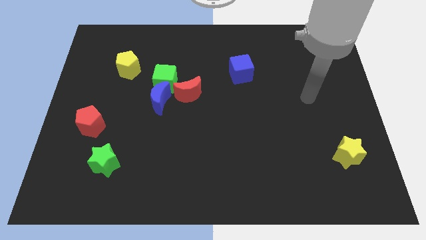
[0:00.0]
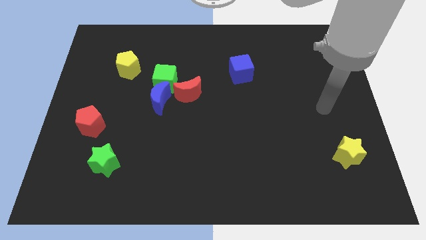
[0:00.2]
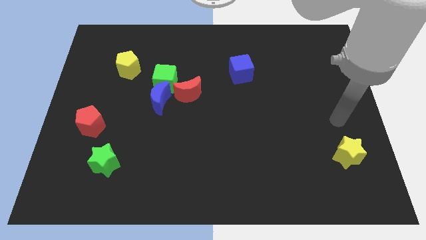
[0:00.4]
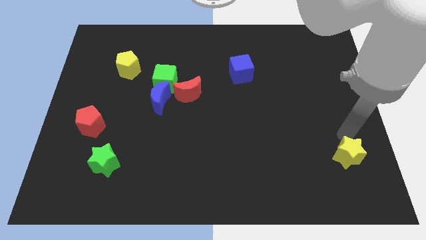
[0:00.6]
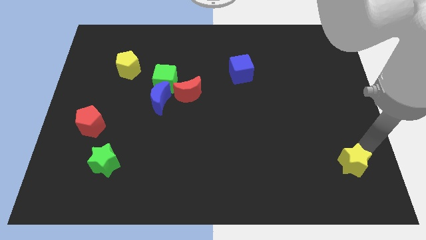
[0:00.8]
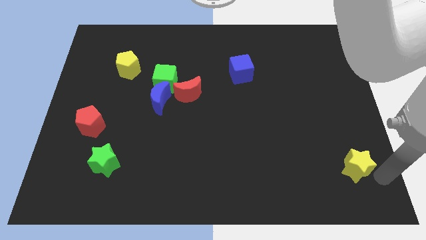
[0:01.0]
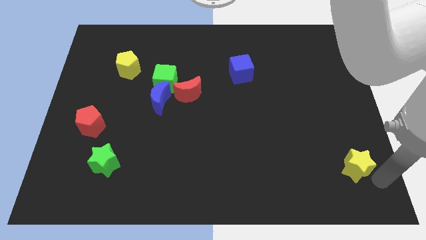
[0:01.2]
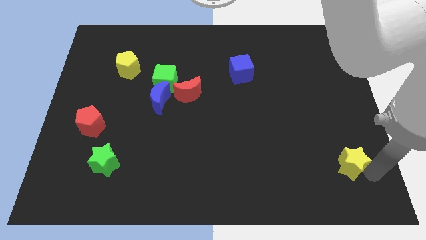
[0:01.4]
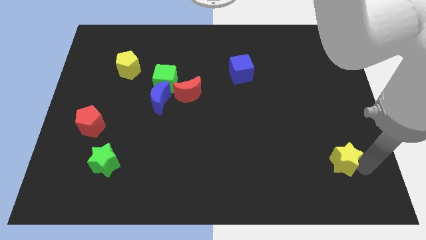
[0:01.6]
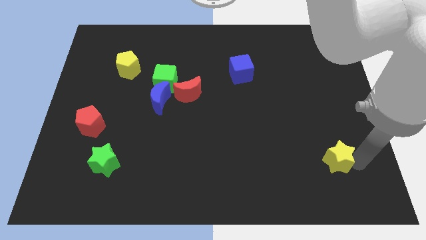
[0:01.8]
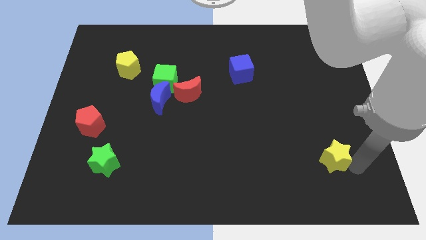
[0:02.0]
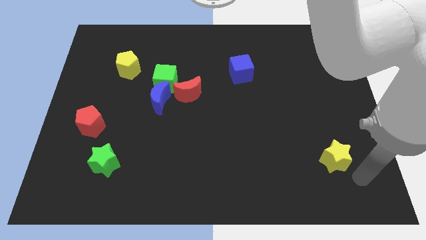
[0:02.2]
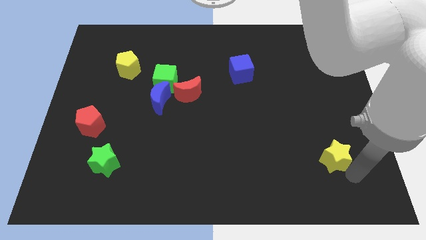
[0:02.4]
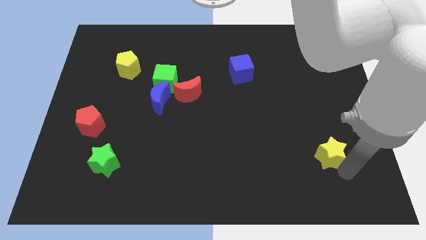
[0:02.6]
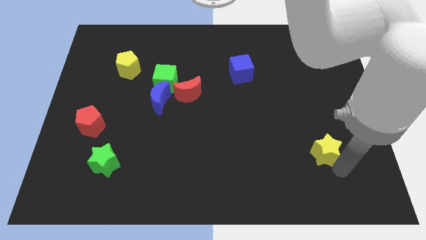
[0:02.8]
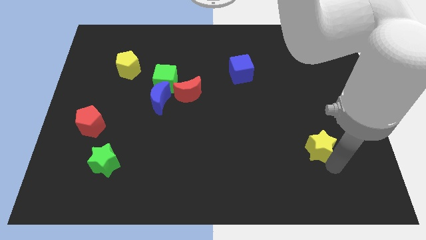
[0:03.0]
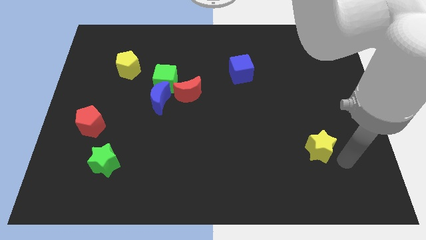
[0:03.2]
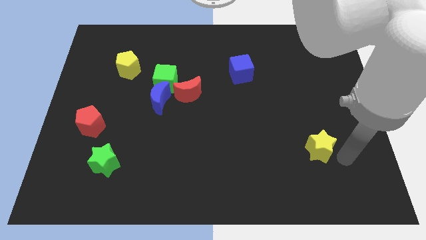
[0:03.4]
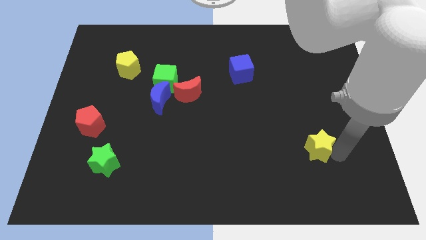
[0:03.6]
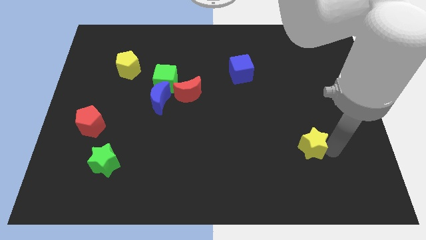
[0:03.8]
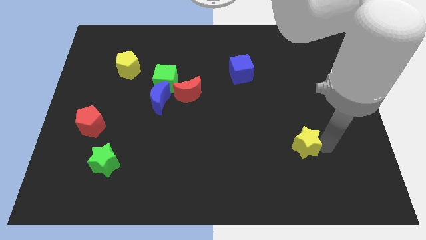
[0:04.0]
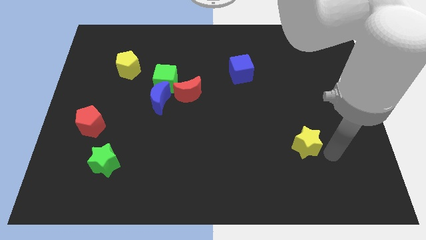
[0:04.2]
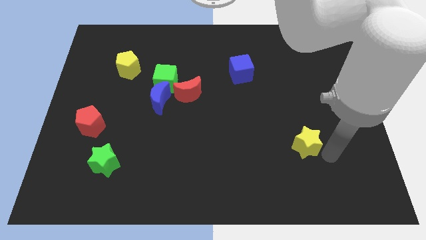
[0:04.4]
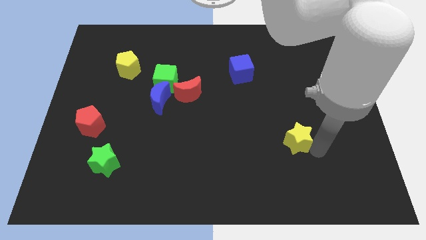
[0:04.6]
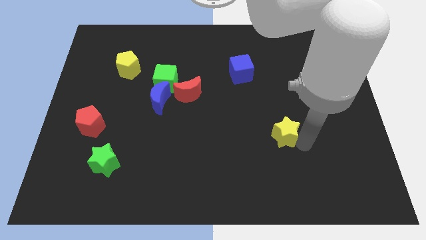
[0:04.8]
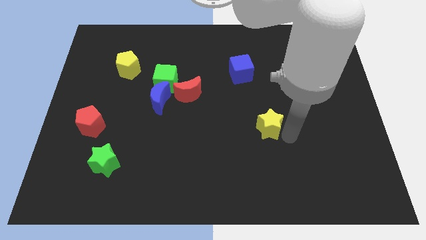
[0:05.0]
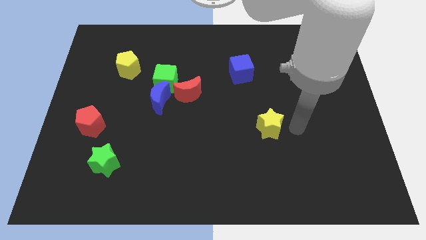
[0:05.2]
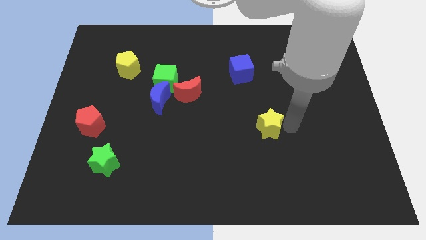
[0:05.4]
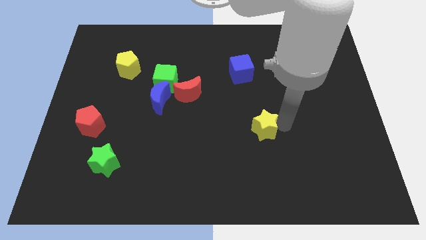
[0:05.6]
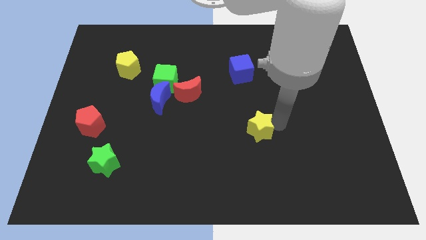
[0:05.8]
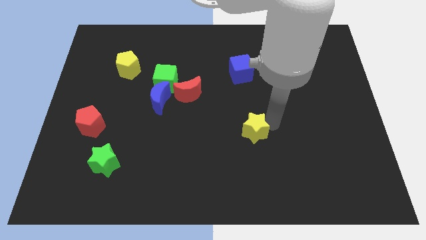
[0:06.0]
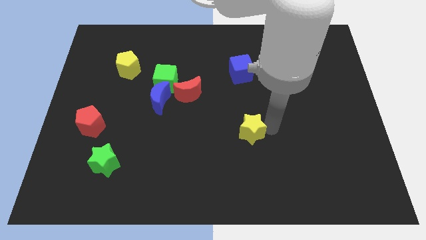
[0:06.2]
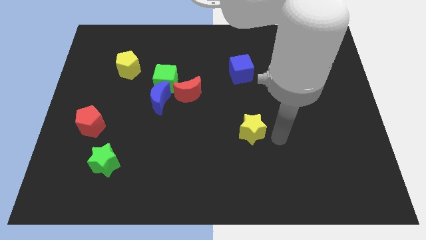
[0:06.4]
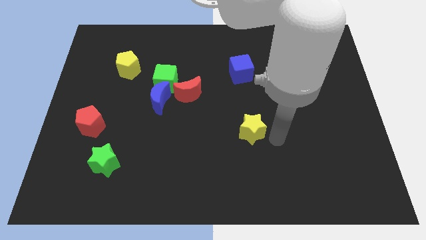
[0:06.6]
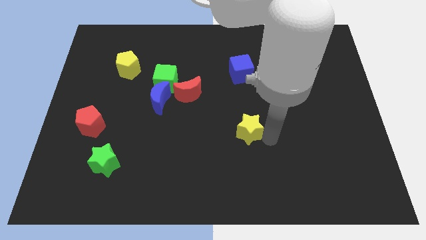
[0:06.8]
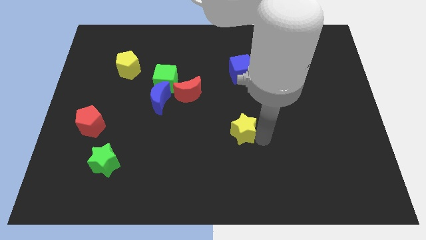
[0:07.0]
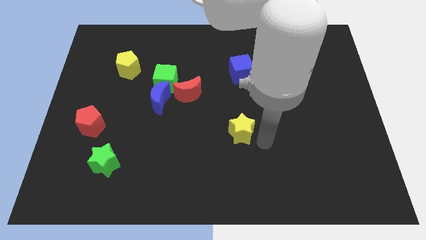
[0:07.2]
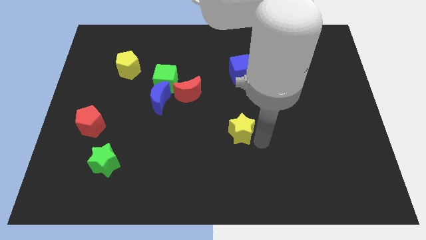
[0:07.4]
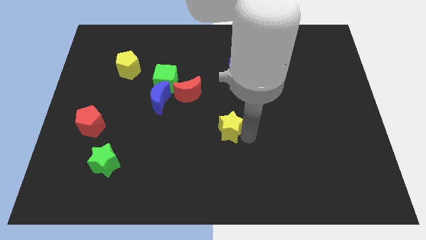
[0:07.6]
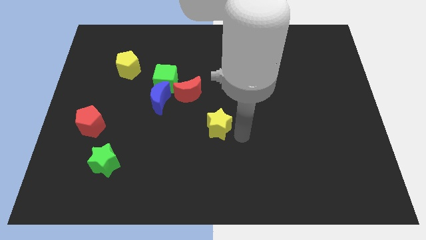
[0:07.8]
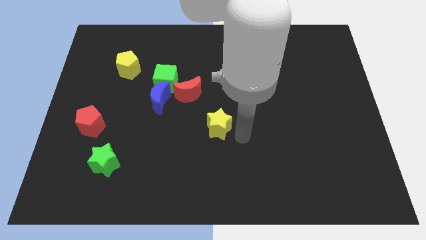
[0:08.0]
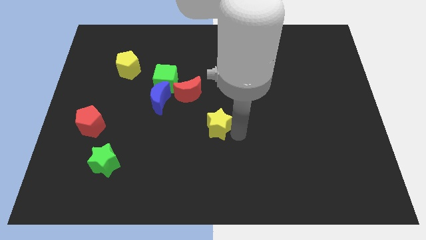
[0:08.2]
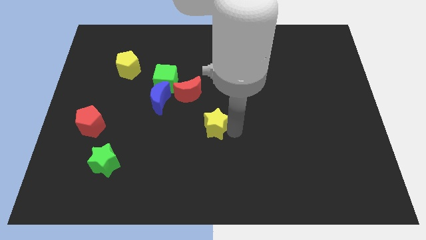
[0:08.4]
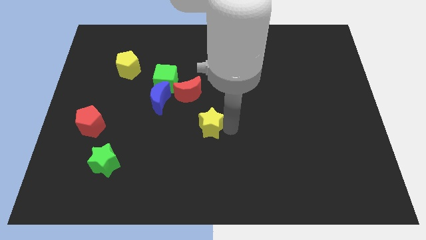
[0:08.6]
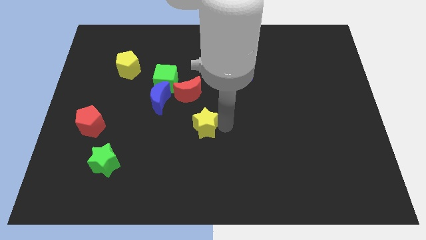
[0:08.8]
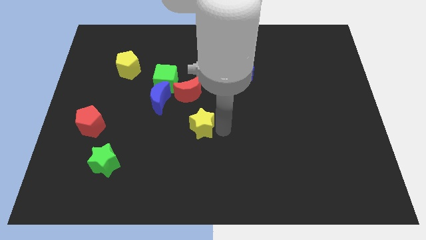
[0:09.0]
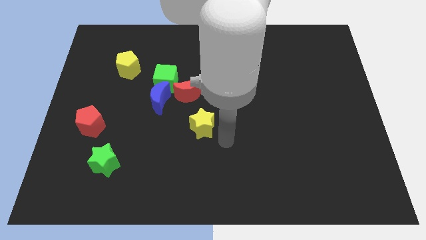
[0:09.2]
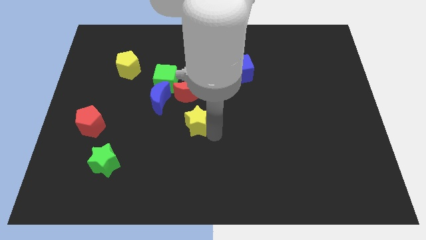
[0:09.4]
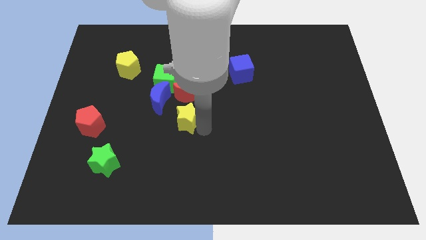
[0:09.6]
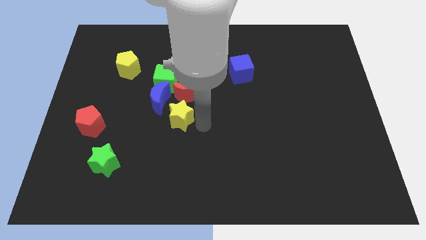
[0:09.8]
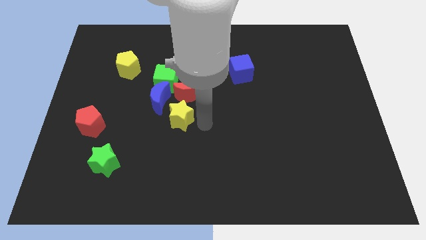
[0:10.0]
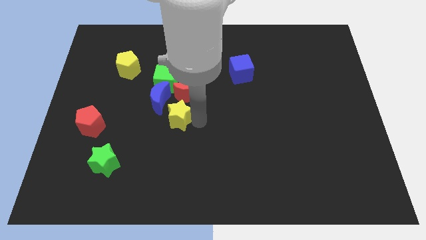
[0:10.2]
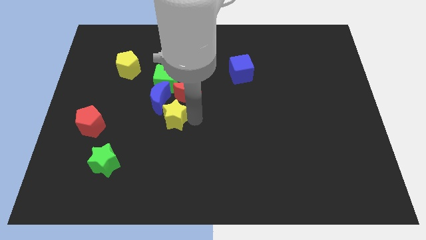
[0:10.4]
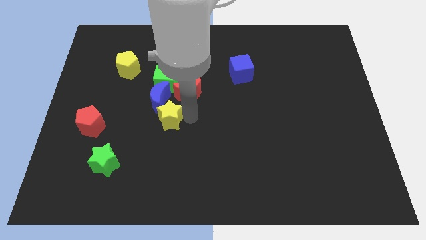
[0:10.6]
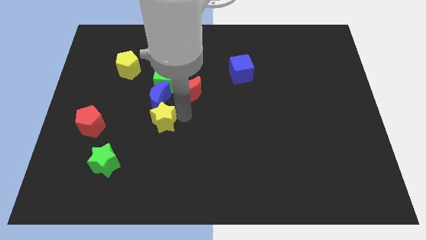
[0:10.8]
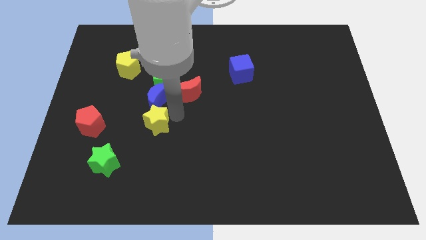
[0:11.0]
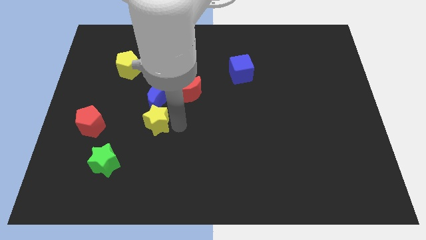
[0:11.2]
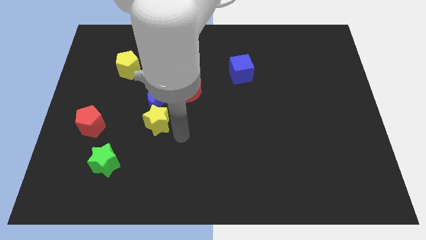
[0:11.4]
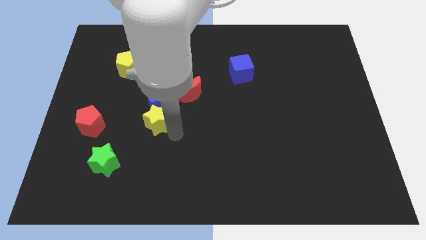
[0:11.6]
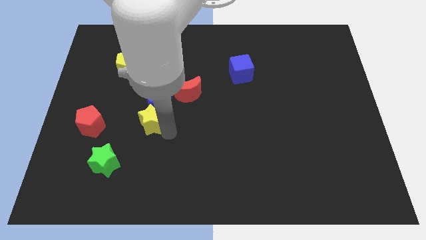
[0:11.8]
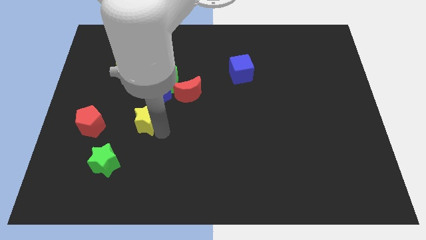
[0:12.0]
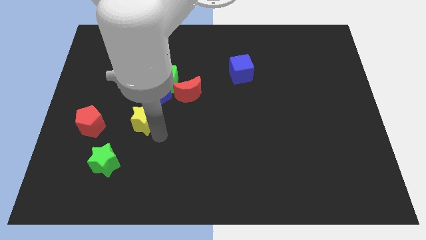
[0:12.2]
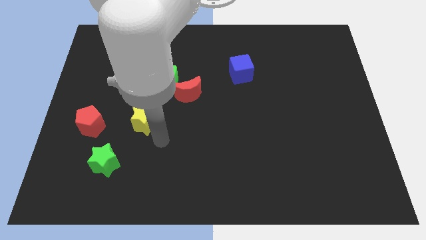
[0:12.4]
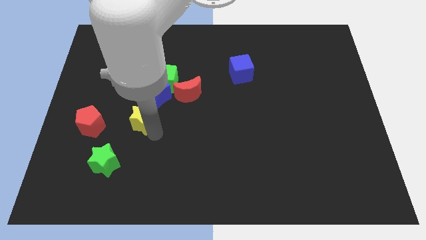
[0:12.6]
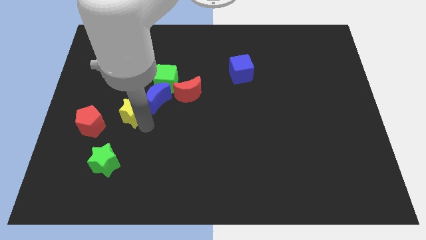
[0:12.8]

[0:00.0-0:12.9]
push the yellow star below the yellow pentagon

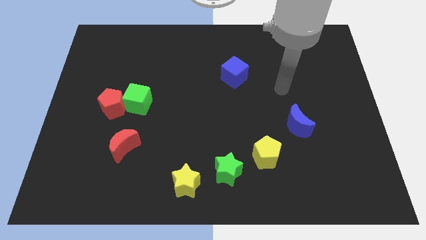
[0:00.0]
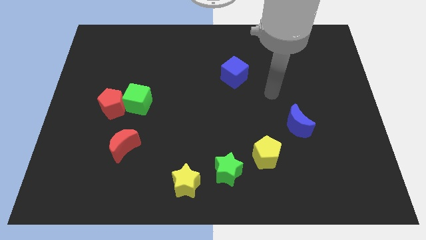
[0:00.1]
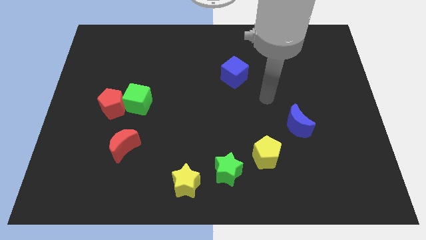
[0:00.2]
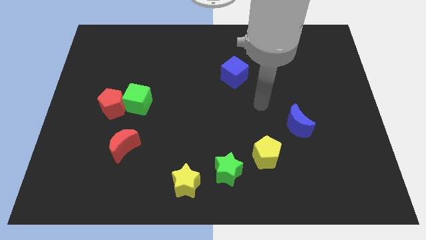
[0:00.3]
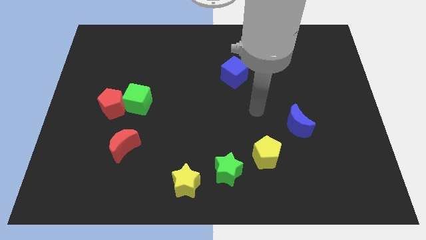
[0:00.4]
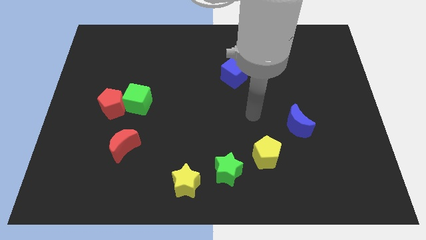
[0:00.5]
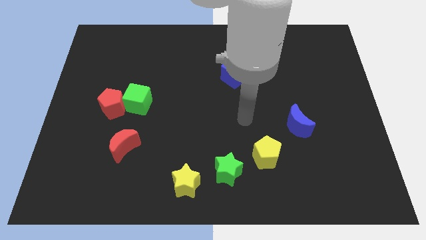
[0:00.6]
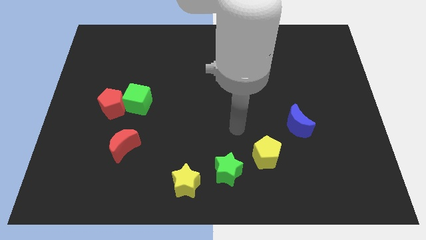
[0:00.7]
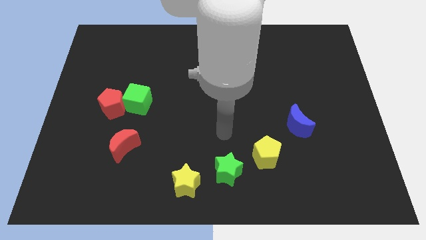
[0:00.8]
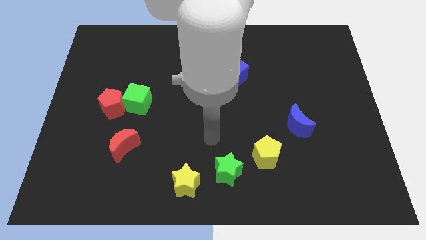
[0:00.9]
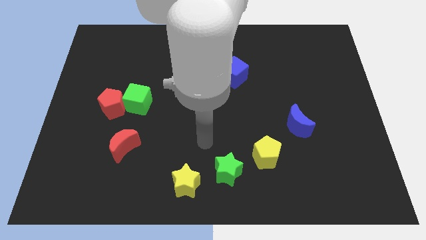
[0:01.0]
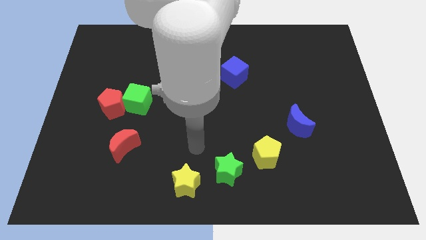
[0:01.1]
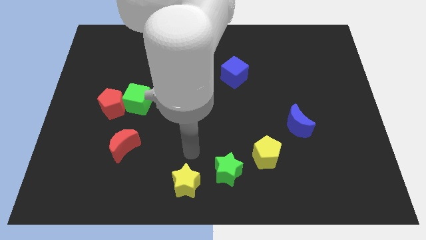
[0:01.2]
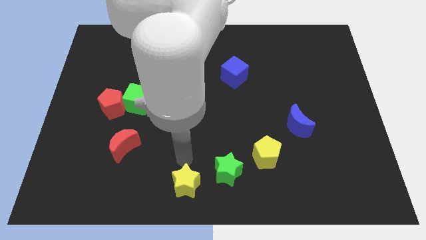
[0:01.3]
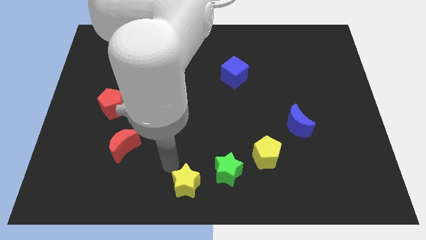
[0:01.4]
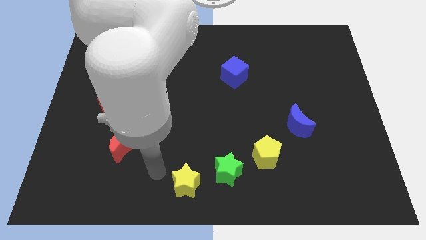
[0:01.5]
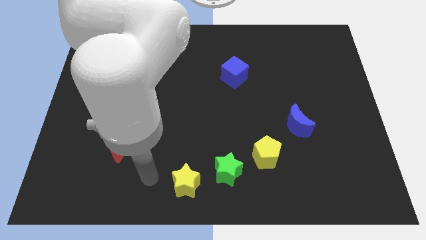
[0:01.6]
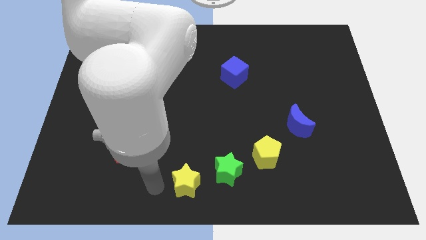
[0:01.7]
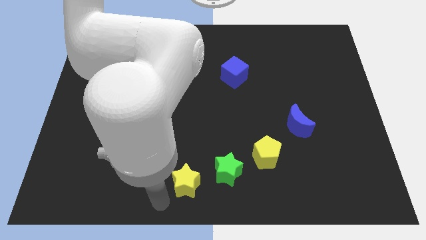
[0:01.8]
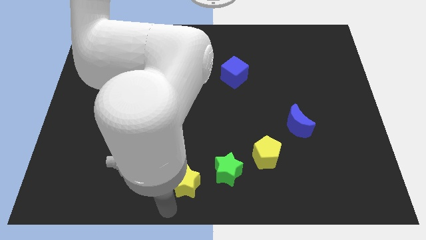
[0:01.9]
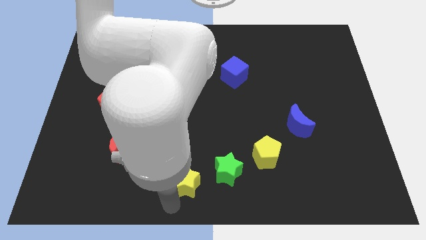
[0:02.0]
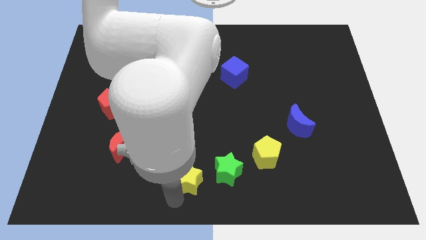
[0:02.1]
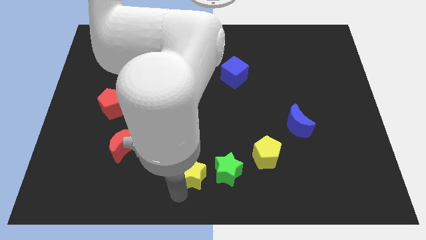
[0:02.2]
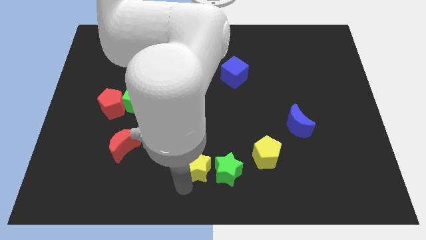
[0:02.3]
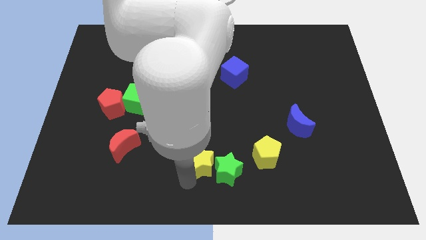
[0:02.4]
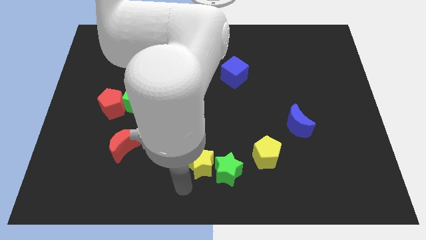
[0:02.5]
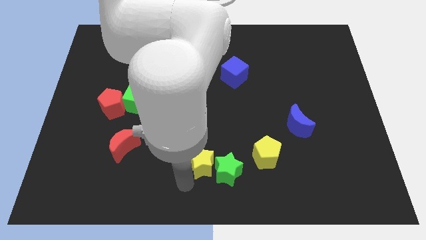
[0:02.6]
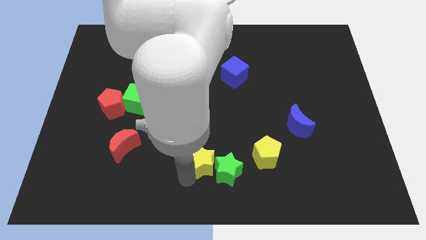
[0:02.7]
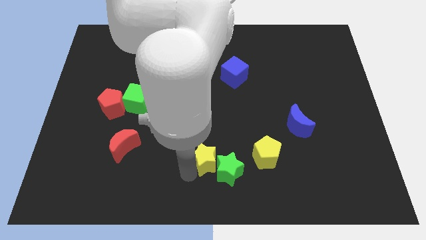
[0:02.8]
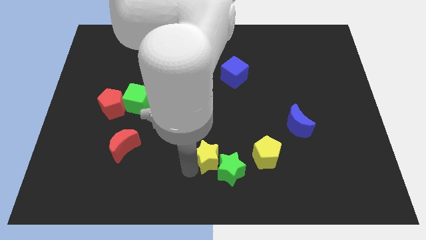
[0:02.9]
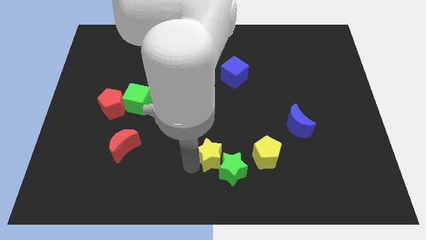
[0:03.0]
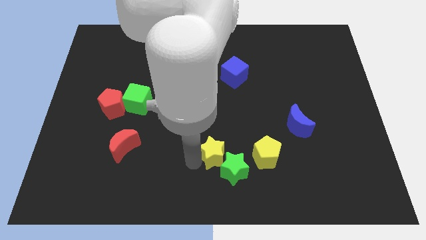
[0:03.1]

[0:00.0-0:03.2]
push the yellow star above the green star
